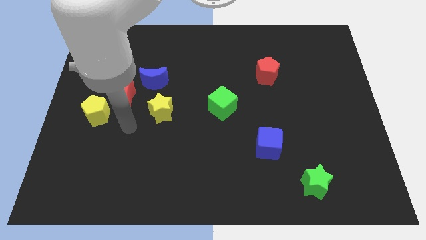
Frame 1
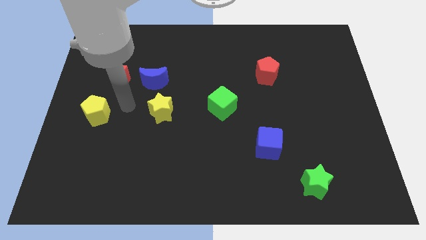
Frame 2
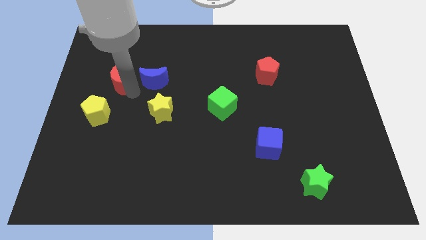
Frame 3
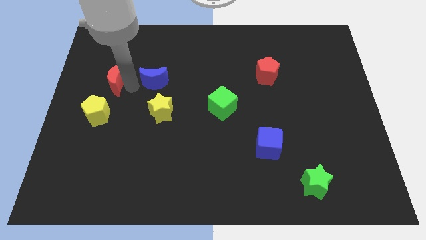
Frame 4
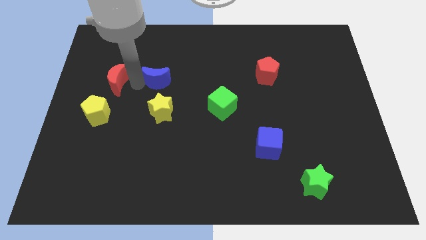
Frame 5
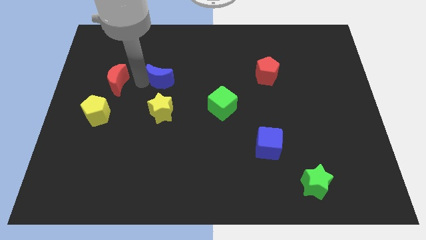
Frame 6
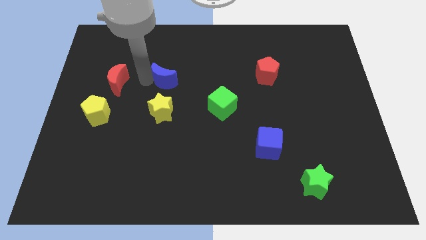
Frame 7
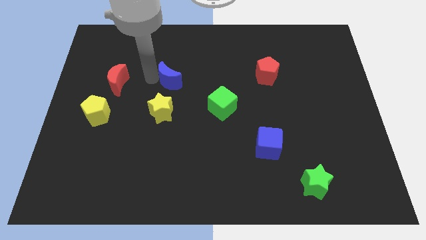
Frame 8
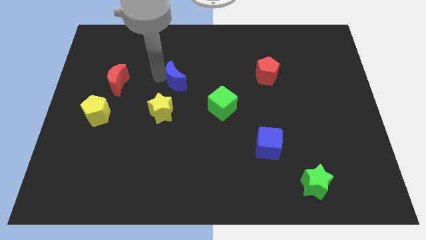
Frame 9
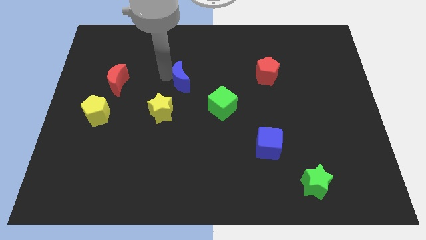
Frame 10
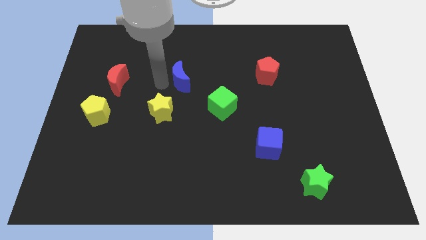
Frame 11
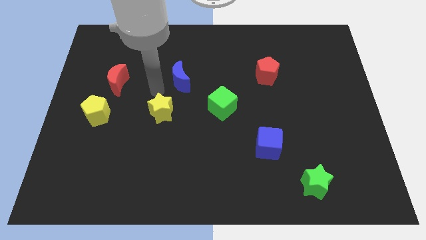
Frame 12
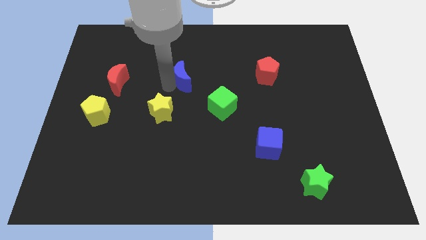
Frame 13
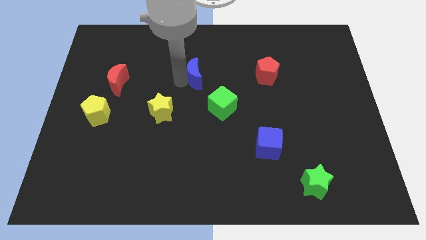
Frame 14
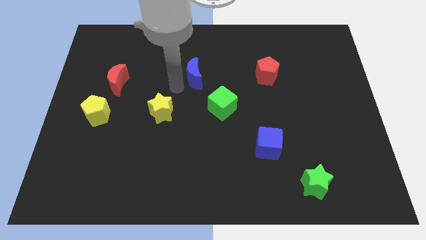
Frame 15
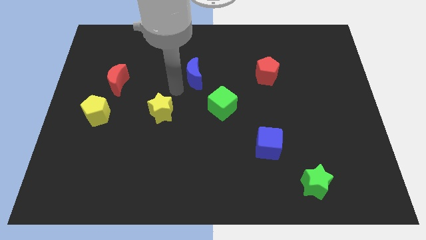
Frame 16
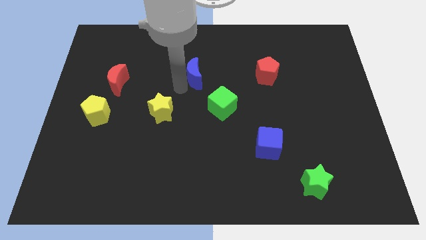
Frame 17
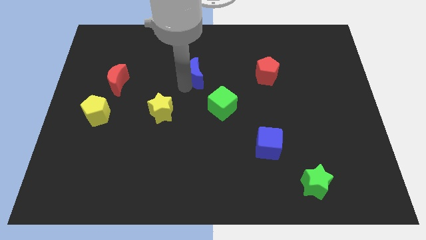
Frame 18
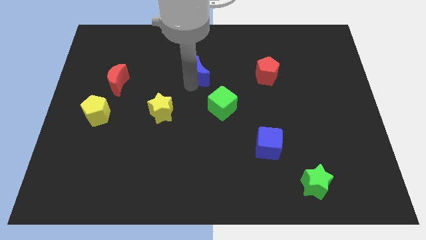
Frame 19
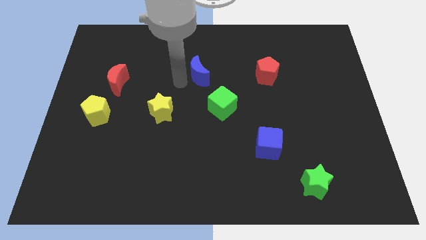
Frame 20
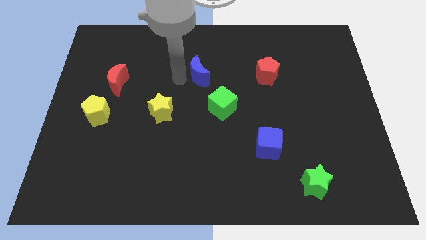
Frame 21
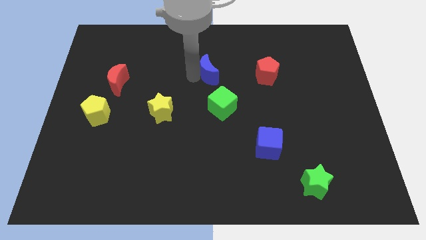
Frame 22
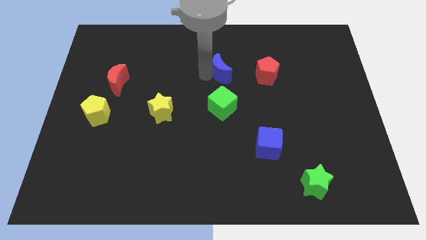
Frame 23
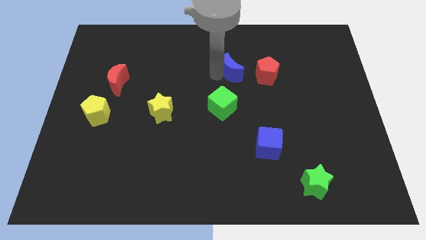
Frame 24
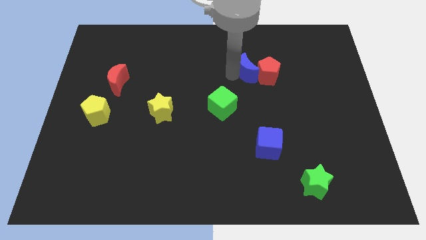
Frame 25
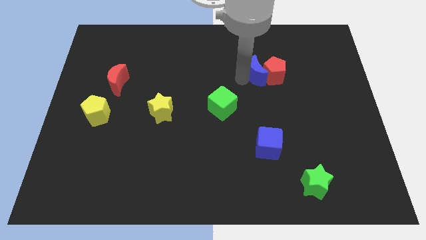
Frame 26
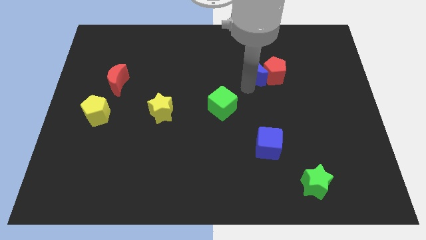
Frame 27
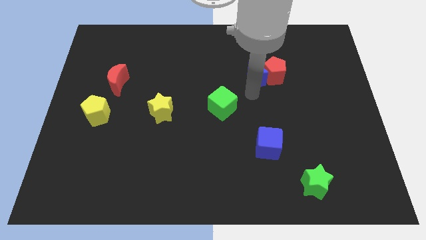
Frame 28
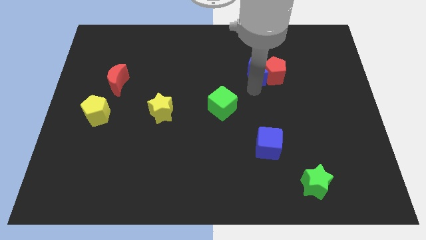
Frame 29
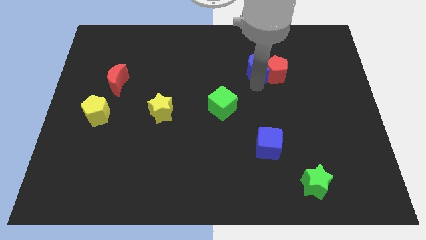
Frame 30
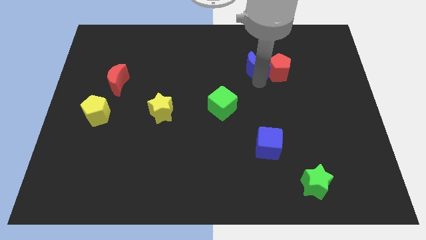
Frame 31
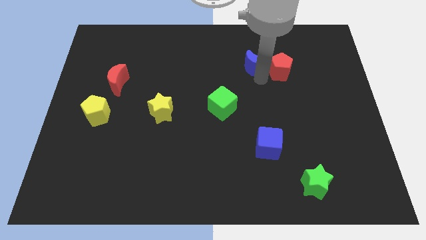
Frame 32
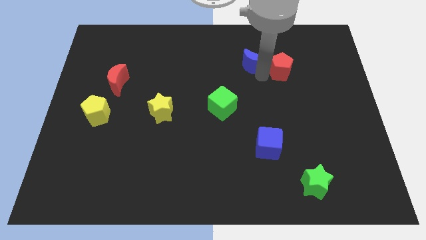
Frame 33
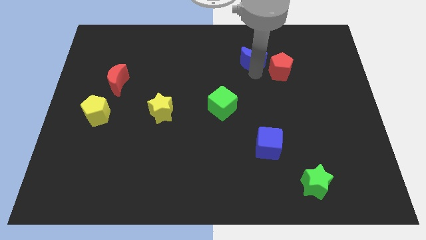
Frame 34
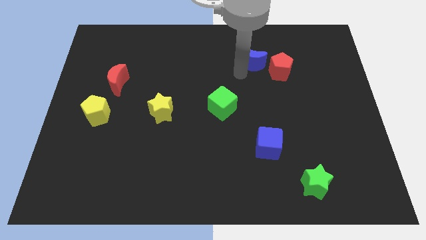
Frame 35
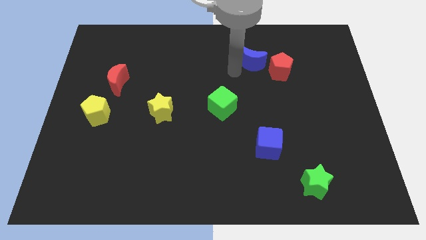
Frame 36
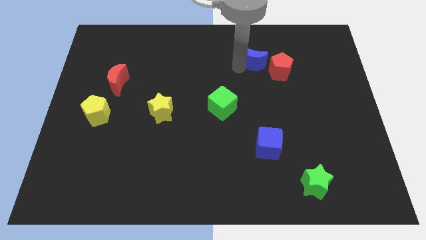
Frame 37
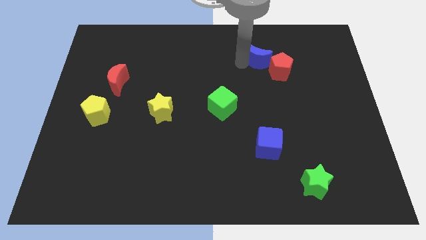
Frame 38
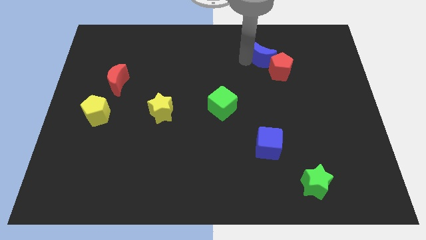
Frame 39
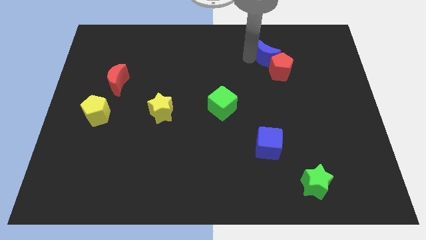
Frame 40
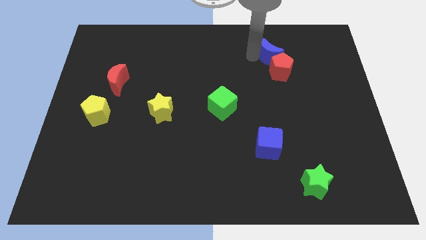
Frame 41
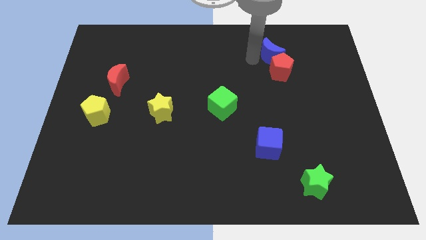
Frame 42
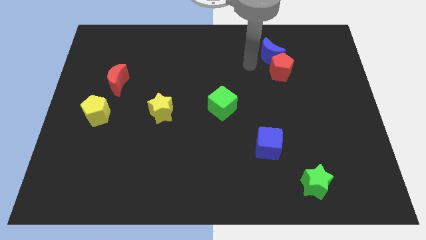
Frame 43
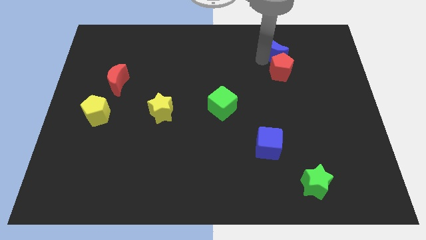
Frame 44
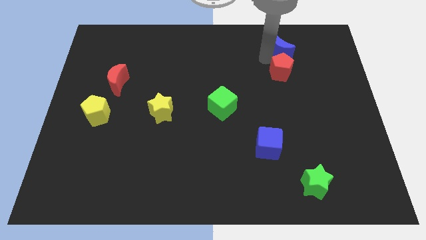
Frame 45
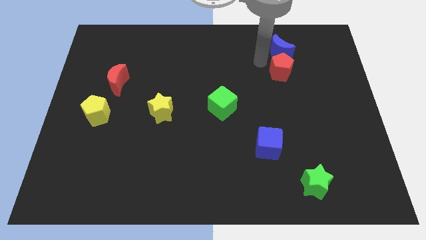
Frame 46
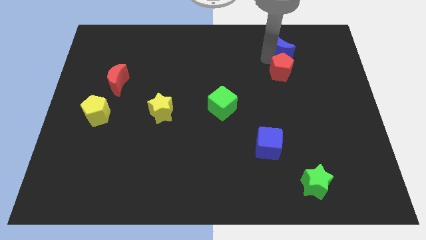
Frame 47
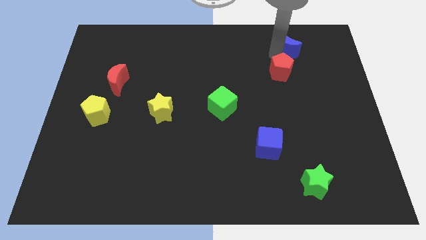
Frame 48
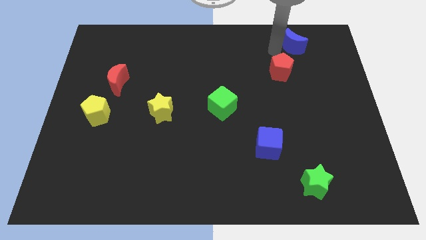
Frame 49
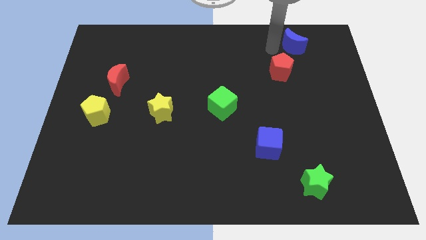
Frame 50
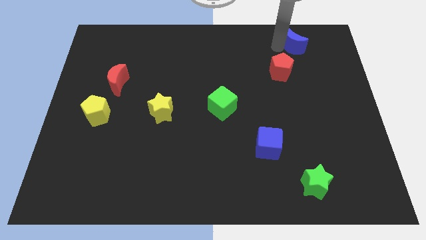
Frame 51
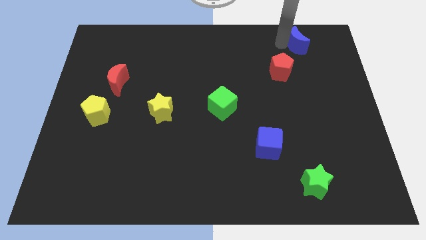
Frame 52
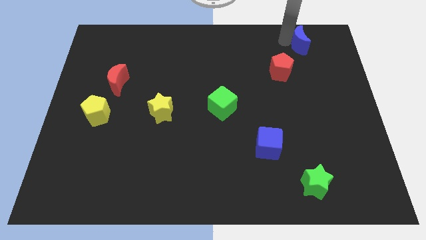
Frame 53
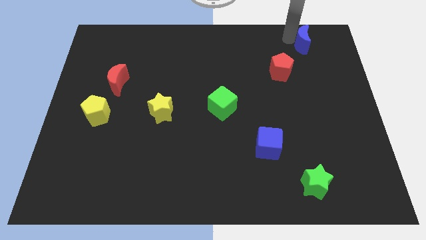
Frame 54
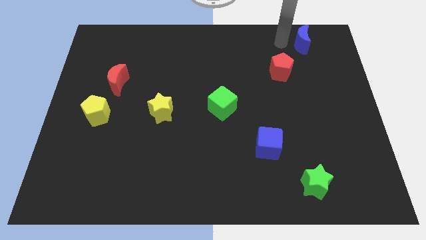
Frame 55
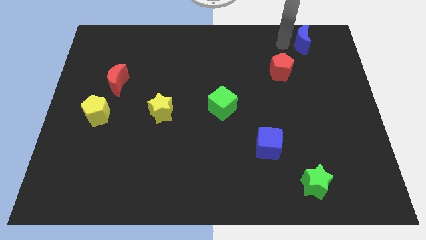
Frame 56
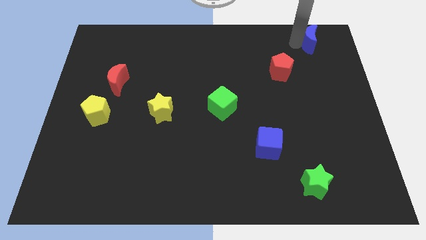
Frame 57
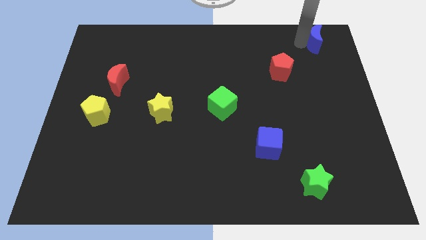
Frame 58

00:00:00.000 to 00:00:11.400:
move the blue moon to the top right corner

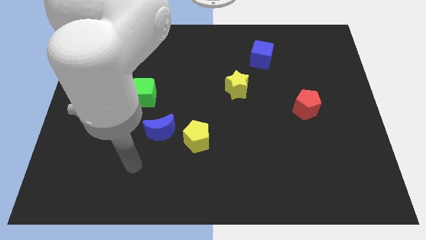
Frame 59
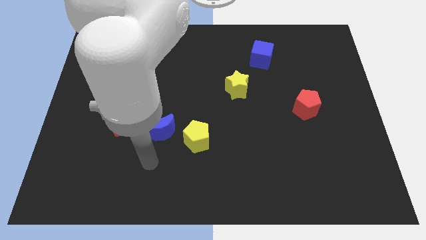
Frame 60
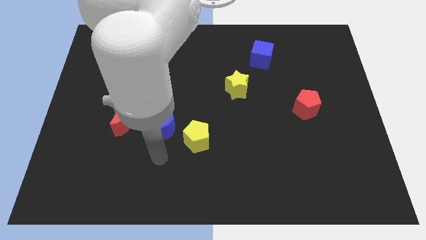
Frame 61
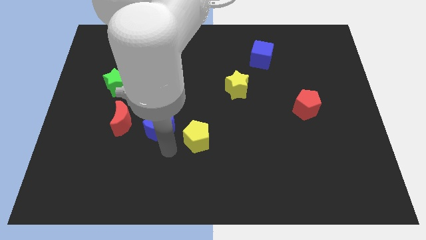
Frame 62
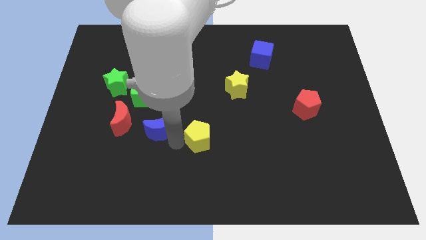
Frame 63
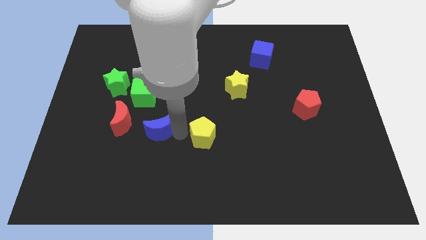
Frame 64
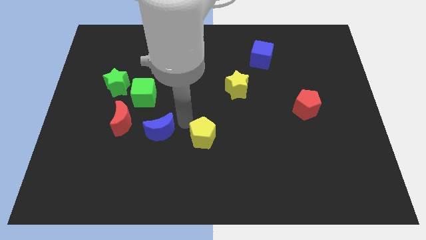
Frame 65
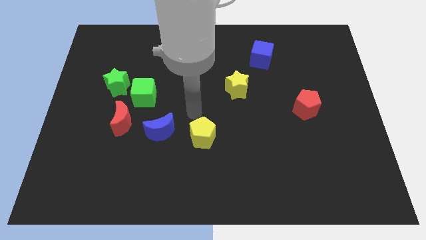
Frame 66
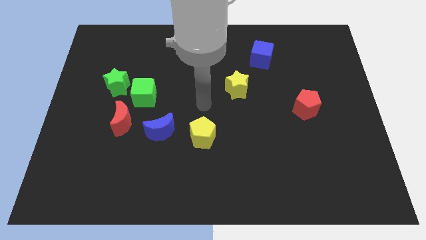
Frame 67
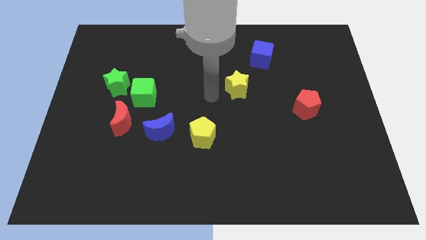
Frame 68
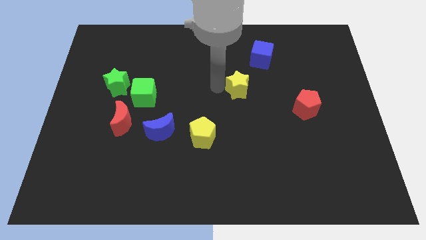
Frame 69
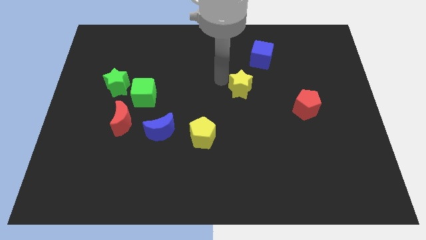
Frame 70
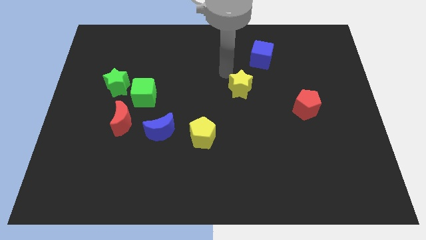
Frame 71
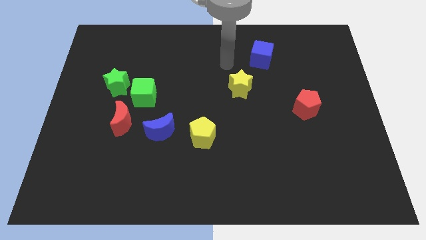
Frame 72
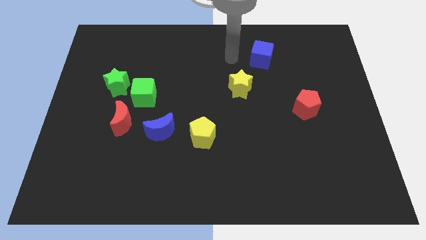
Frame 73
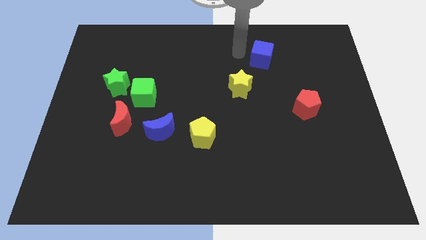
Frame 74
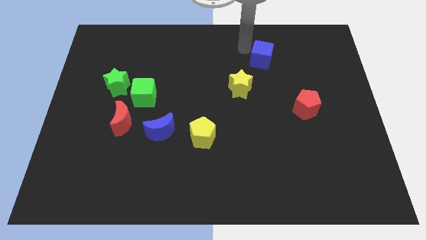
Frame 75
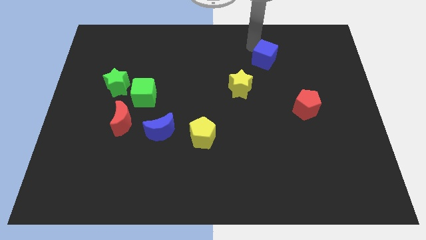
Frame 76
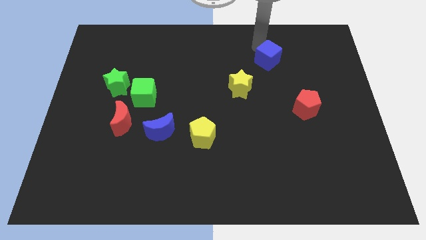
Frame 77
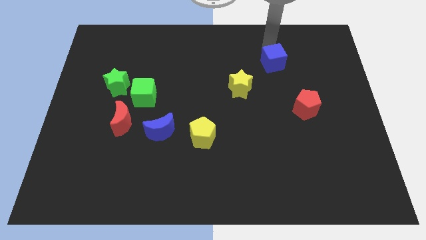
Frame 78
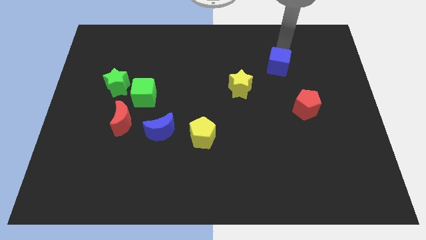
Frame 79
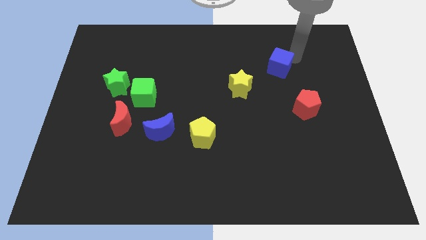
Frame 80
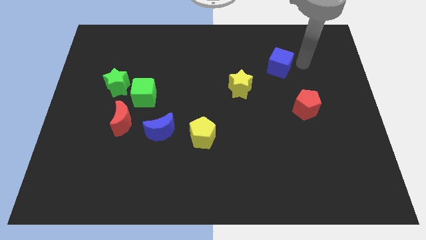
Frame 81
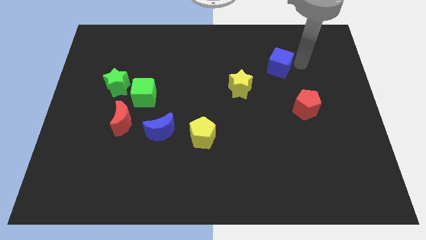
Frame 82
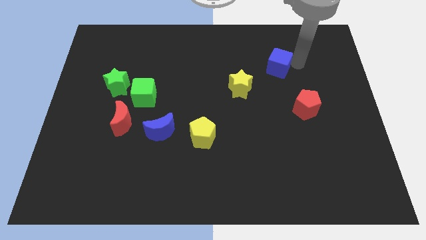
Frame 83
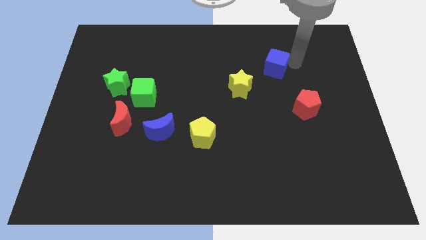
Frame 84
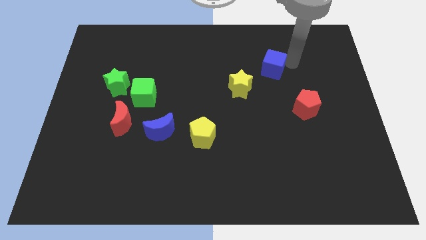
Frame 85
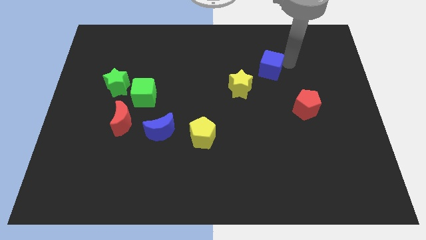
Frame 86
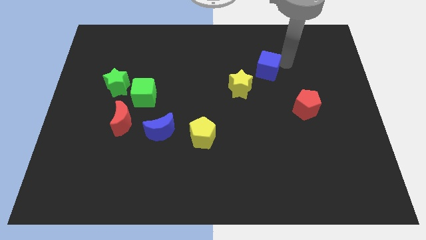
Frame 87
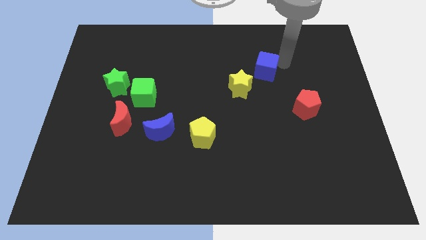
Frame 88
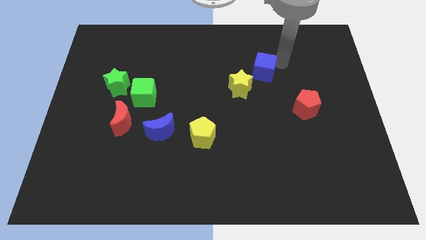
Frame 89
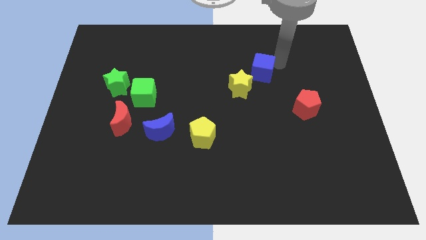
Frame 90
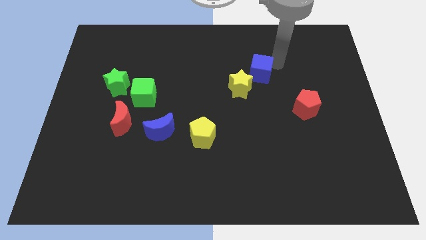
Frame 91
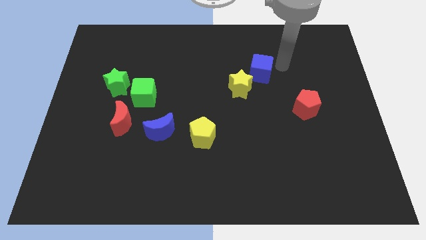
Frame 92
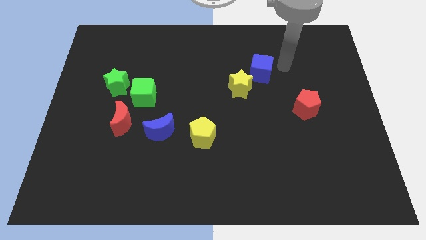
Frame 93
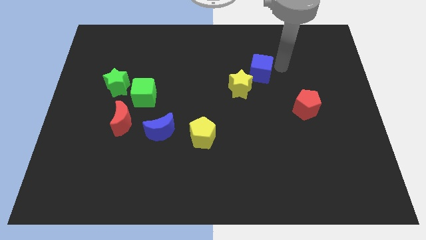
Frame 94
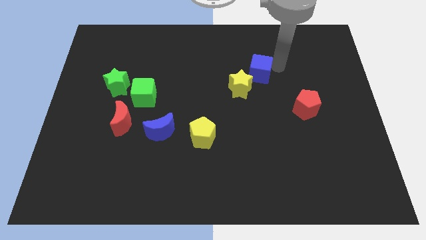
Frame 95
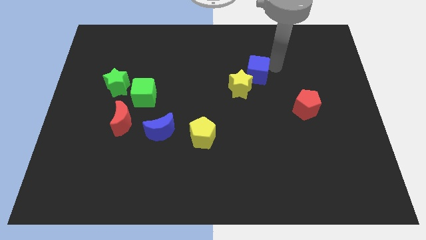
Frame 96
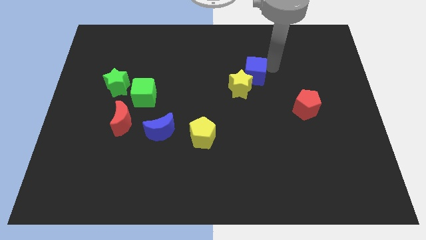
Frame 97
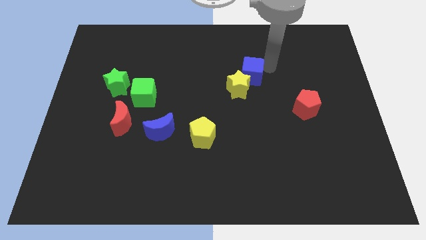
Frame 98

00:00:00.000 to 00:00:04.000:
put the blue cube to the middle
